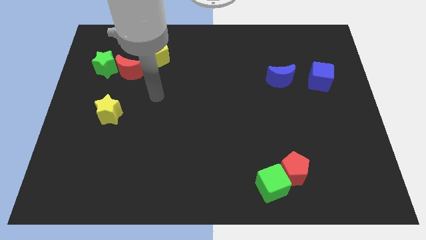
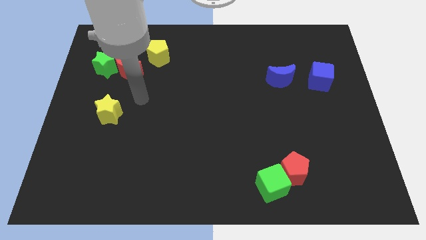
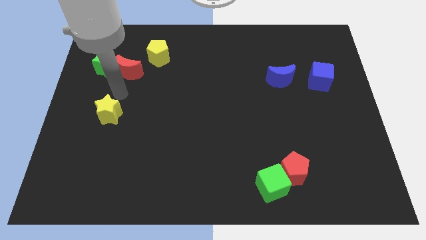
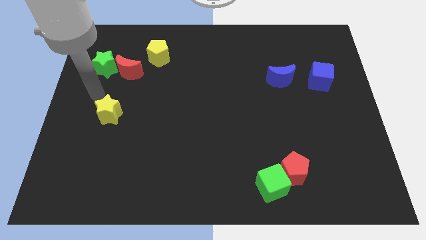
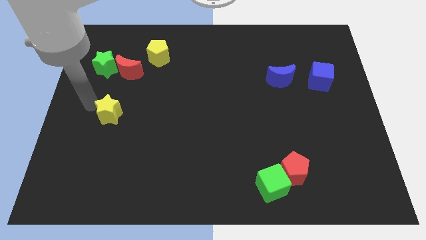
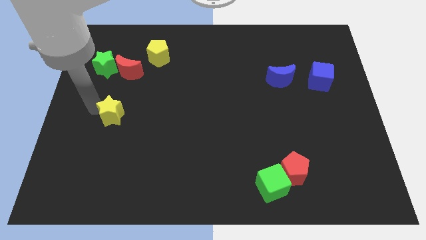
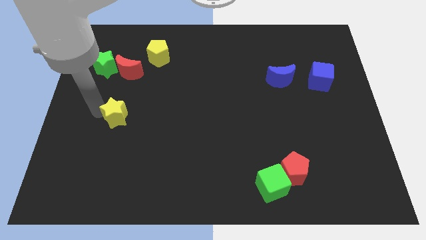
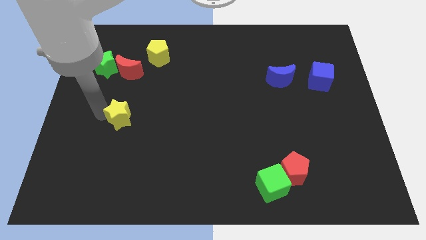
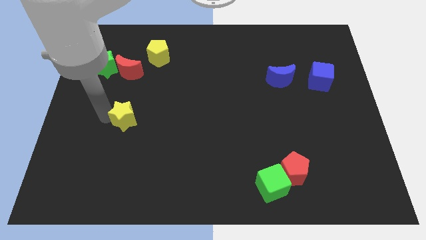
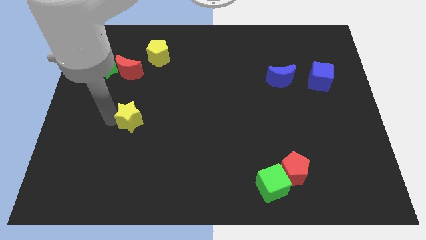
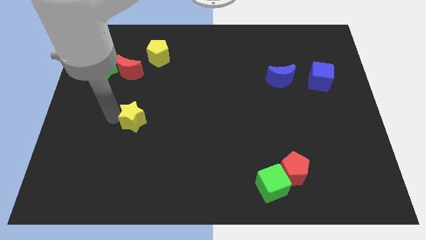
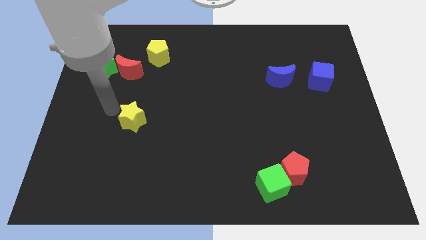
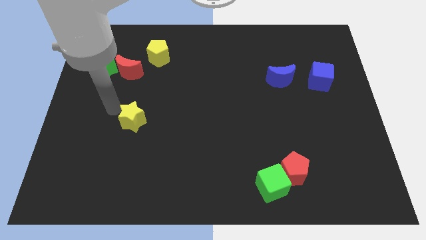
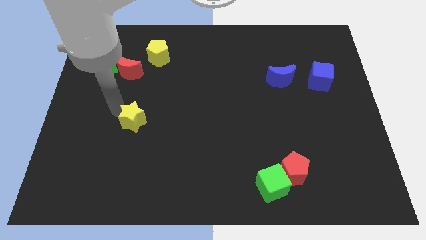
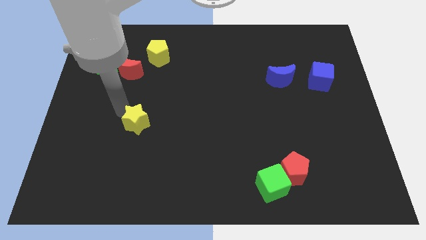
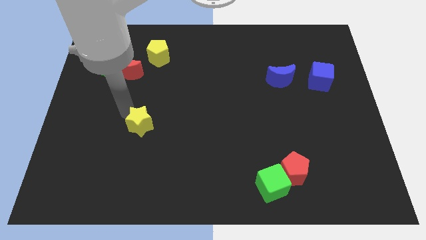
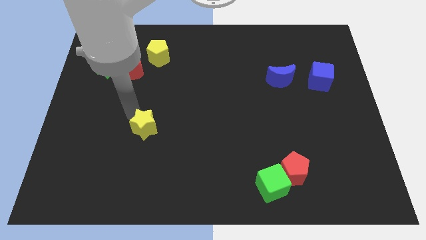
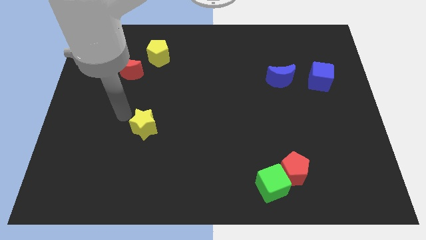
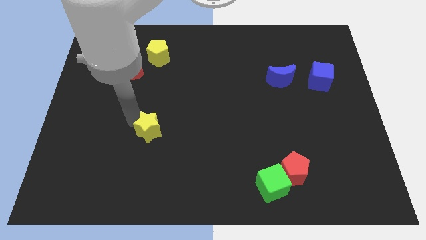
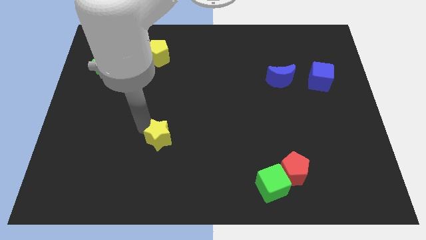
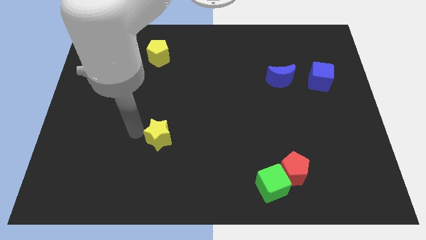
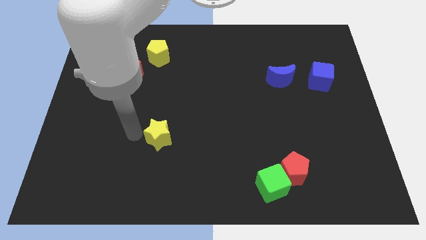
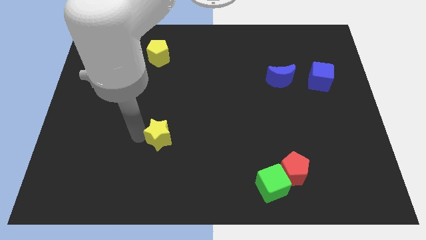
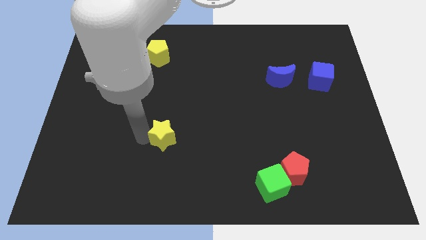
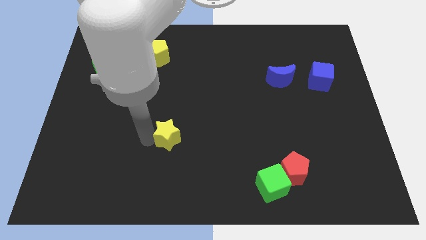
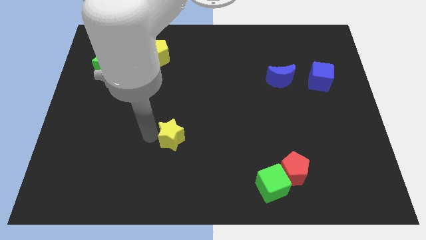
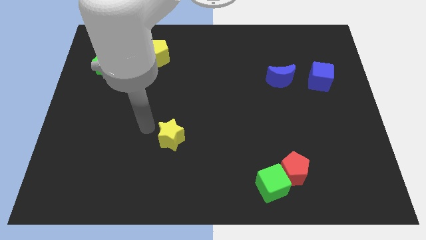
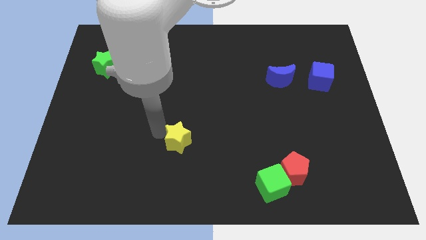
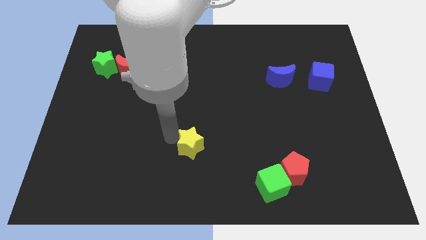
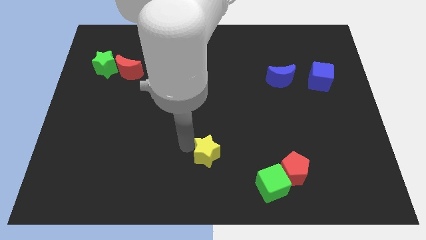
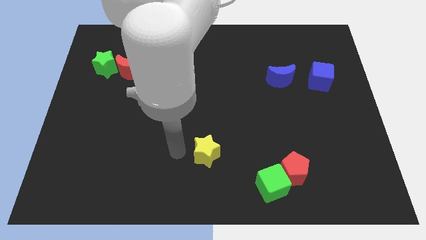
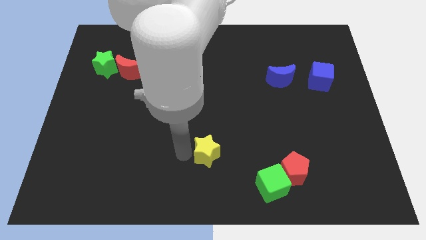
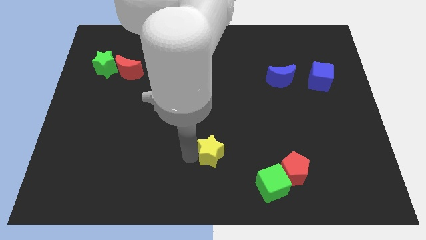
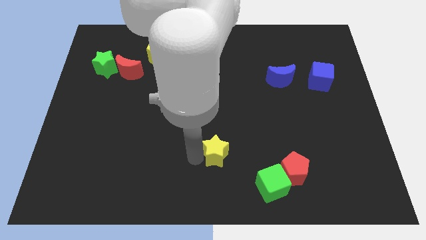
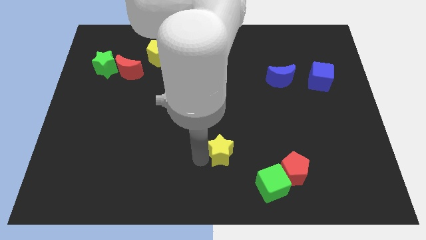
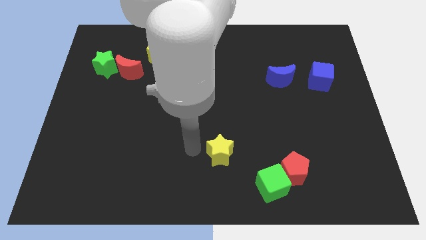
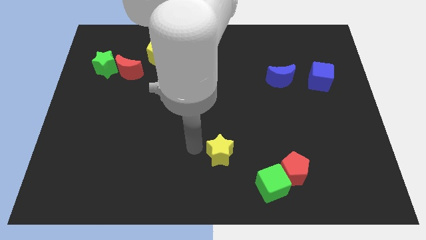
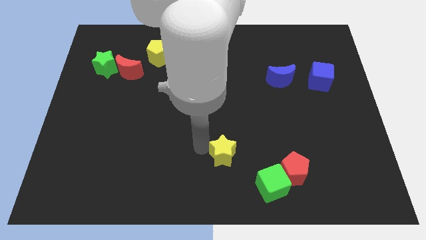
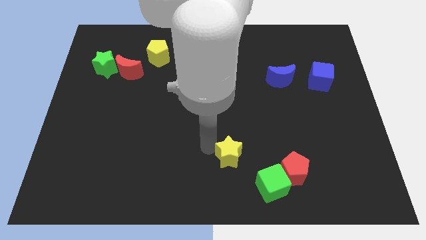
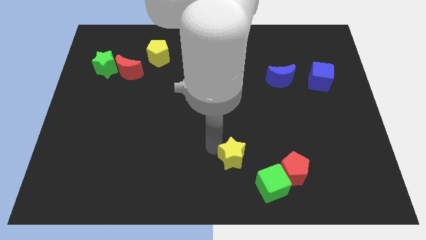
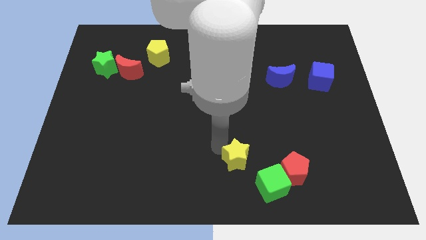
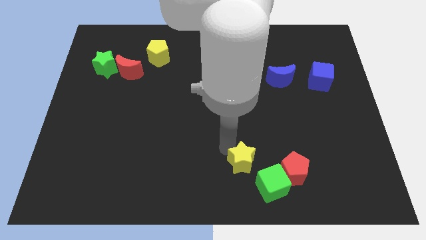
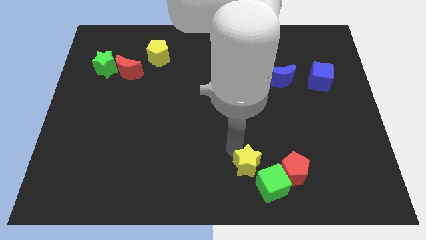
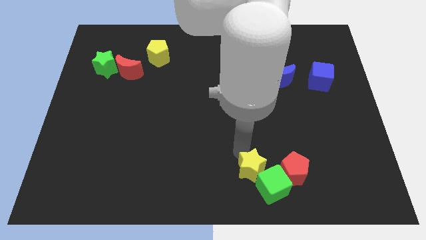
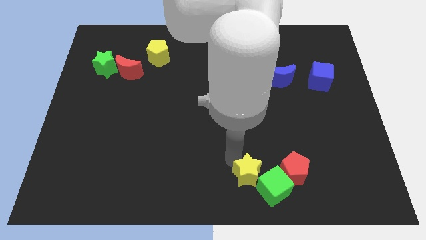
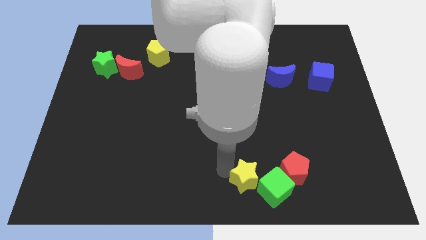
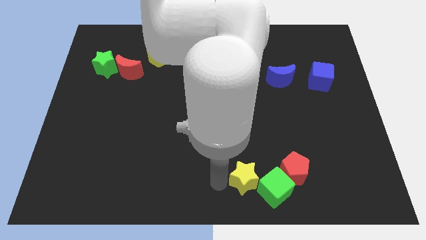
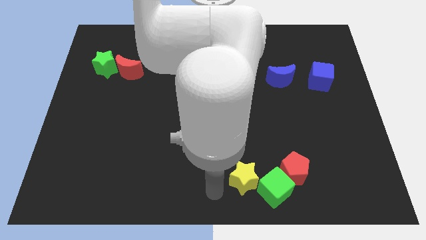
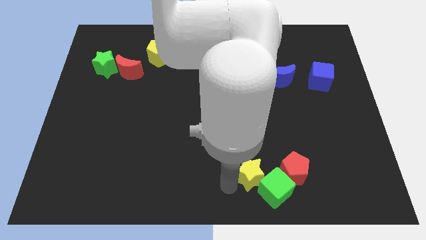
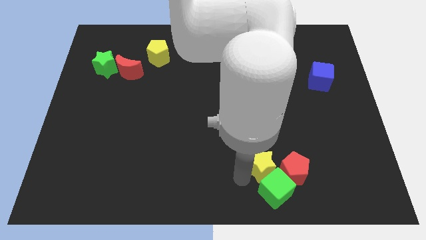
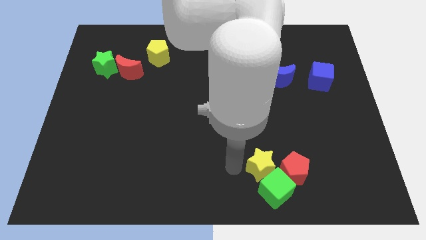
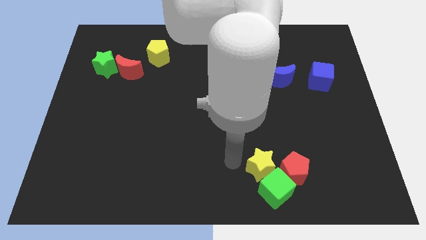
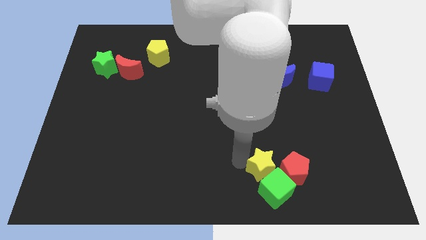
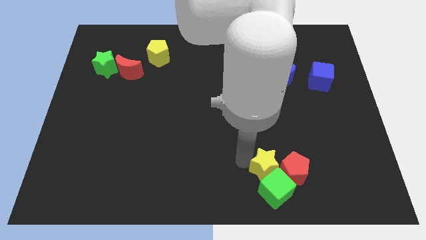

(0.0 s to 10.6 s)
move the yellow star close to the red pentagon

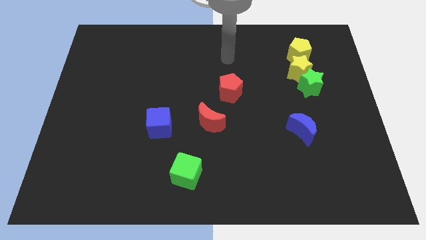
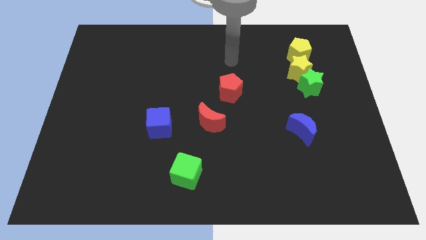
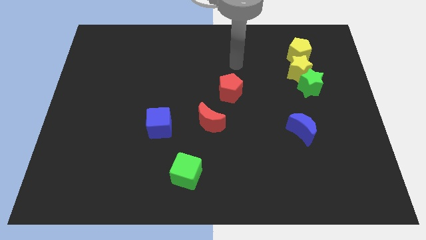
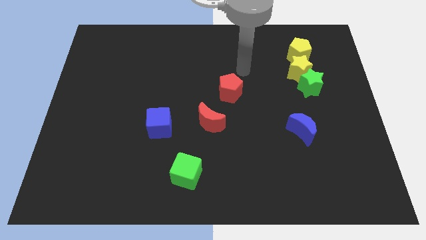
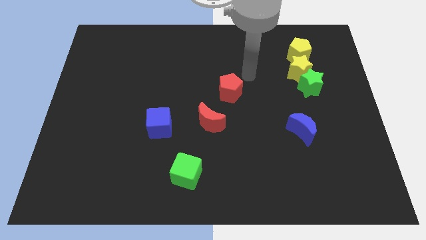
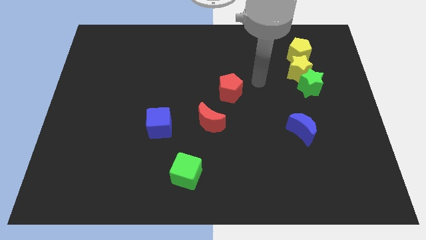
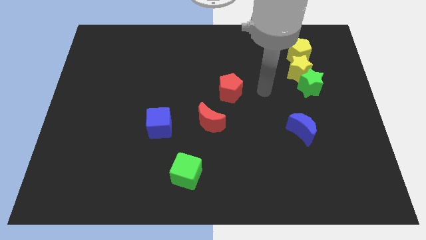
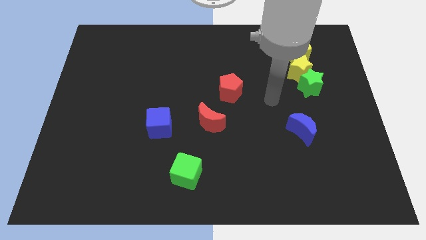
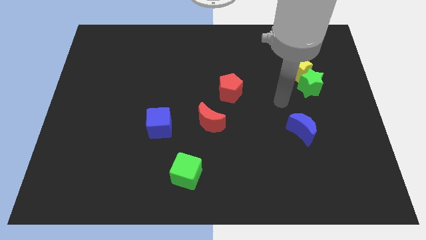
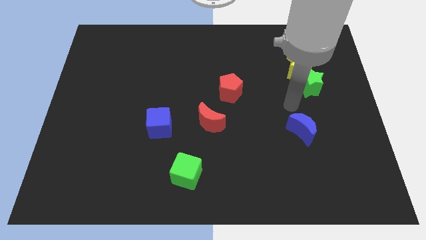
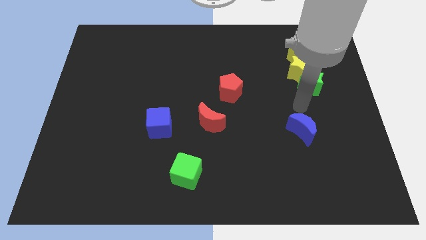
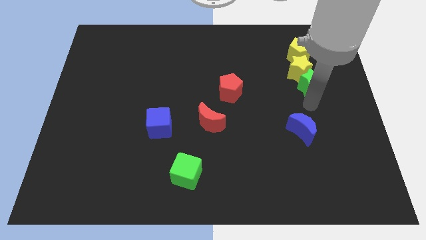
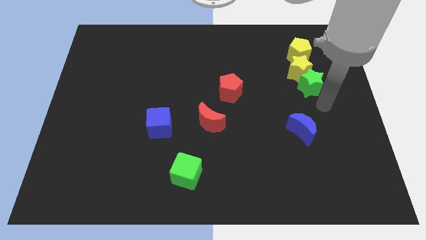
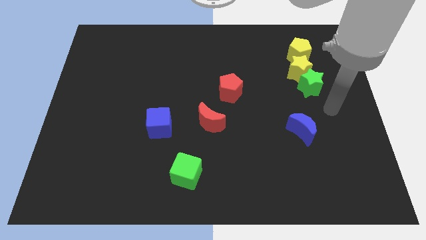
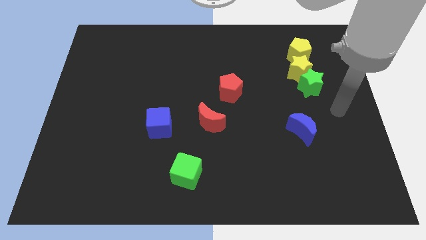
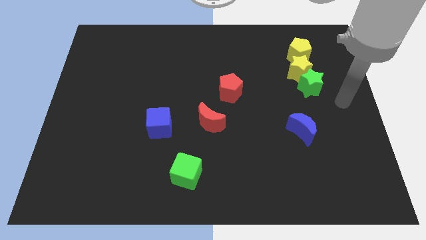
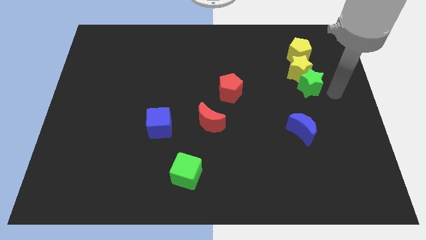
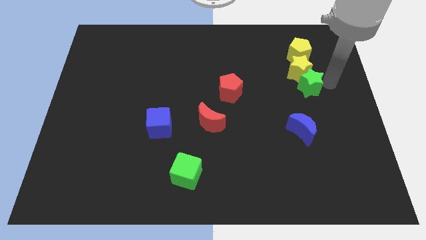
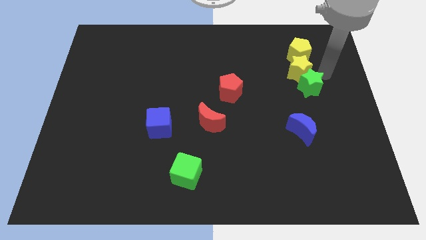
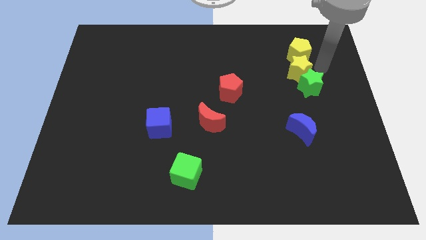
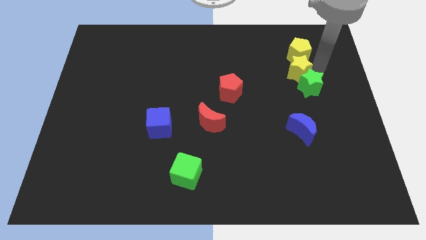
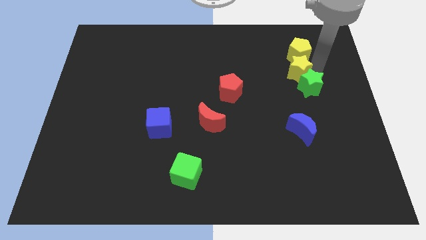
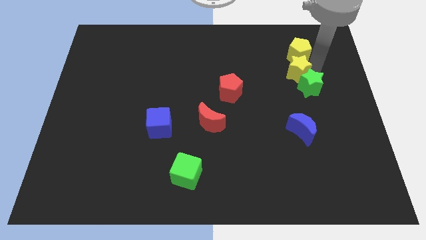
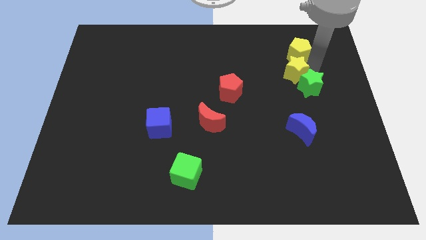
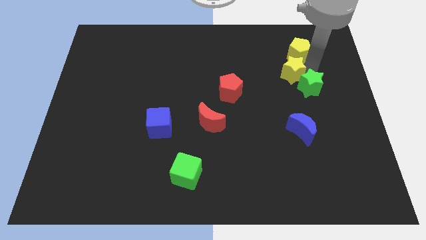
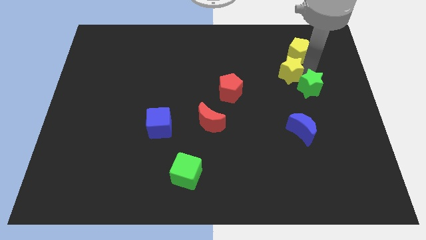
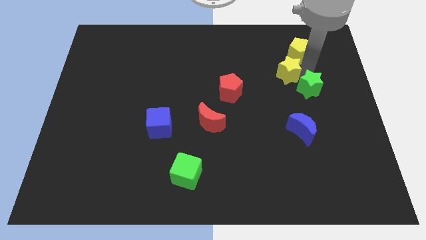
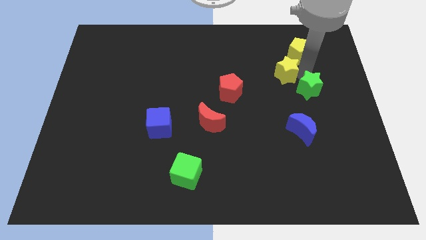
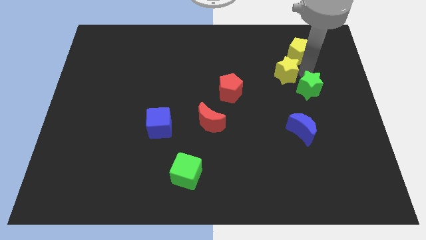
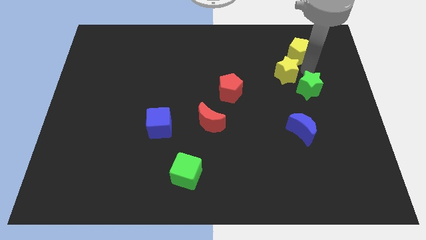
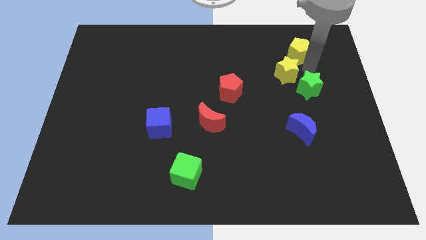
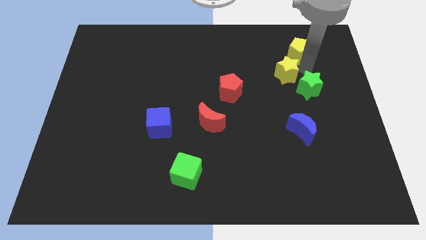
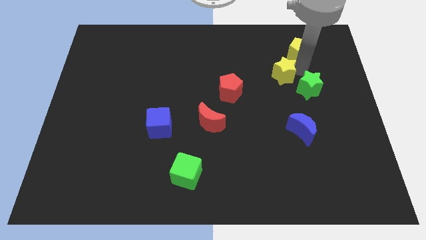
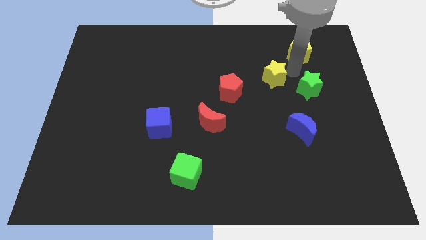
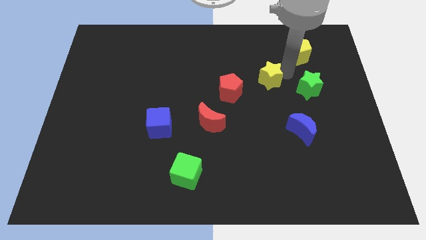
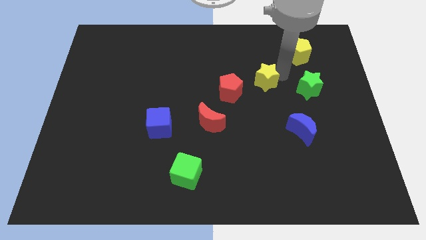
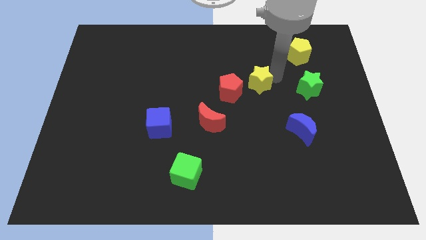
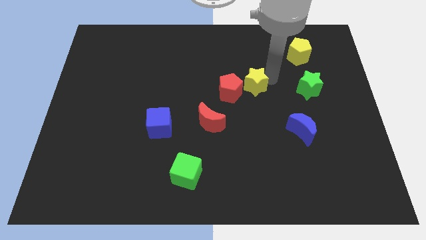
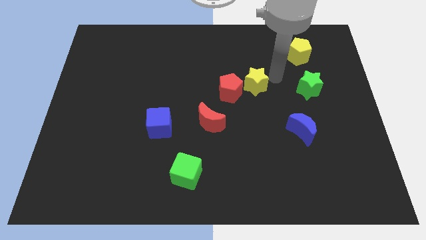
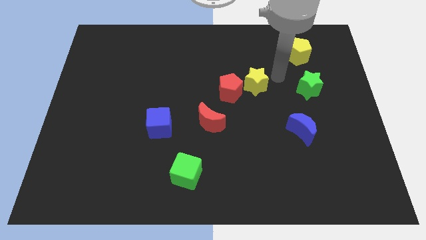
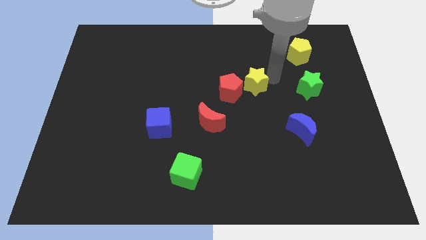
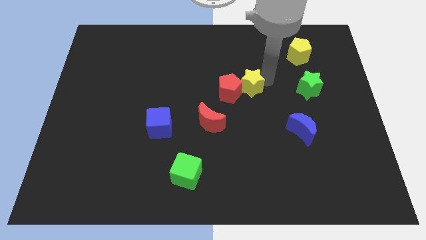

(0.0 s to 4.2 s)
move the yellow star towards the red pentagon
